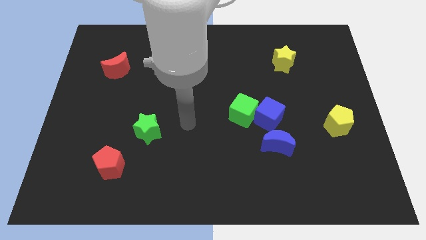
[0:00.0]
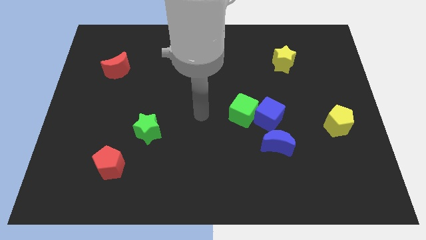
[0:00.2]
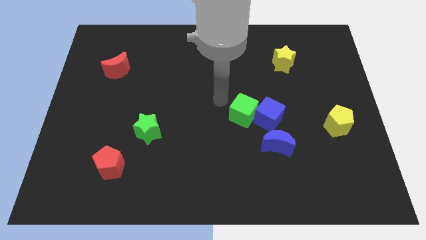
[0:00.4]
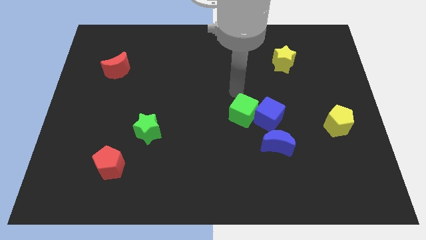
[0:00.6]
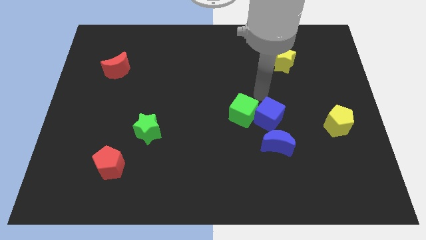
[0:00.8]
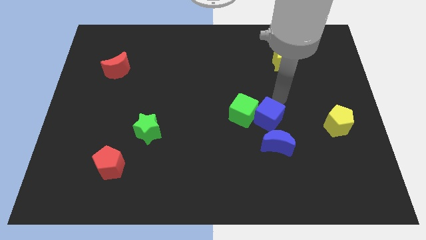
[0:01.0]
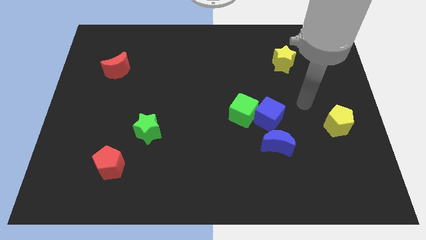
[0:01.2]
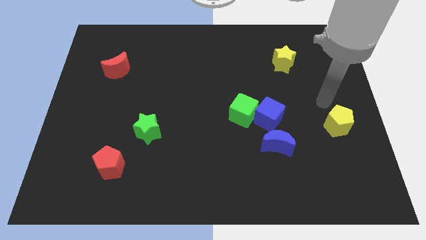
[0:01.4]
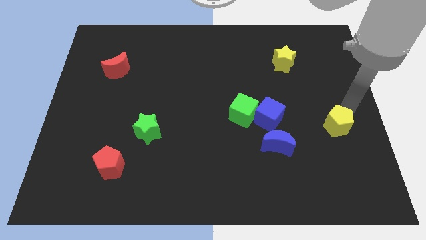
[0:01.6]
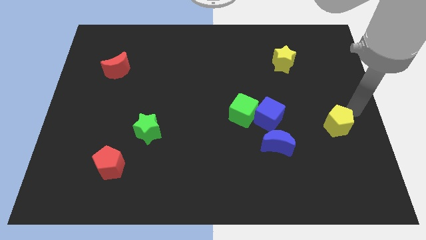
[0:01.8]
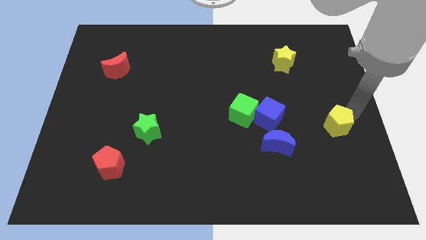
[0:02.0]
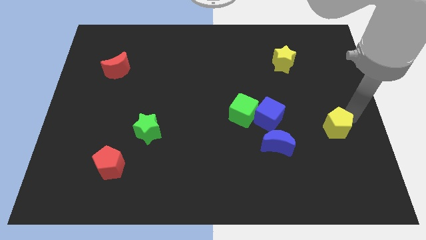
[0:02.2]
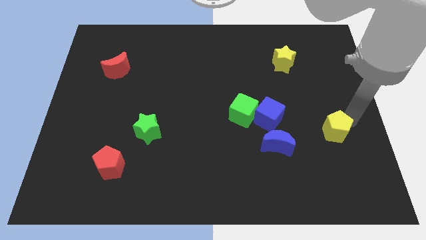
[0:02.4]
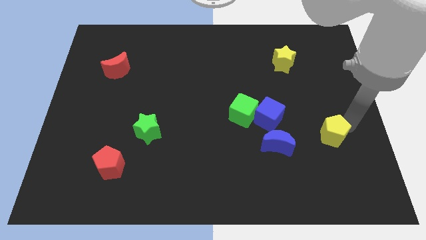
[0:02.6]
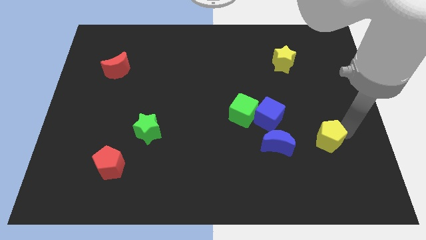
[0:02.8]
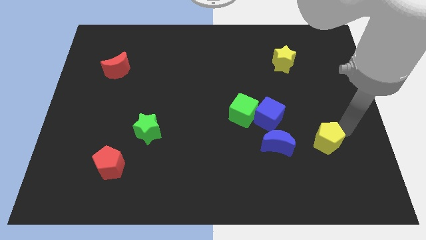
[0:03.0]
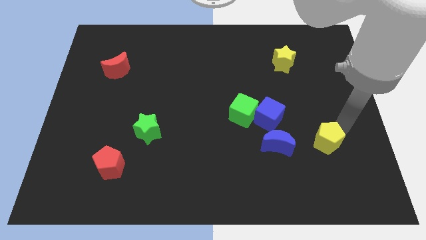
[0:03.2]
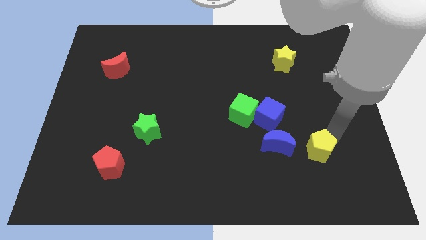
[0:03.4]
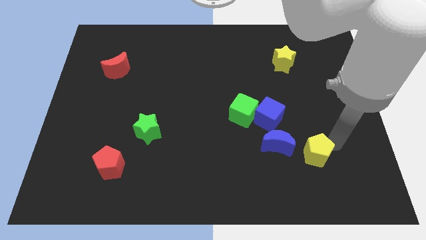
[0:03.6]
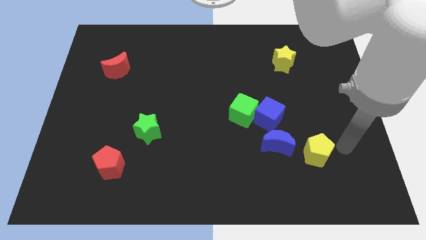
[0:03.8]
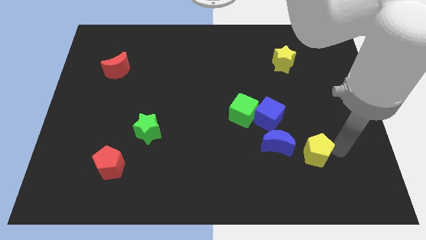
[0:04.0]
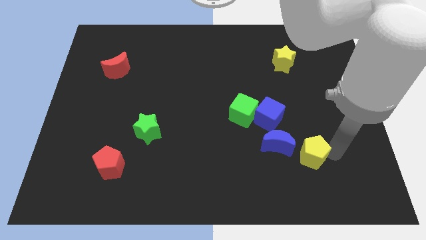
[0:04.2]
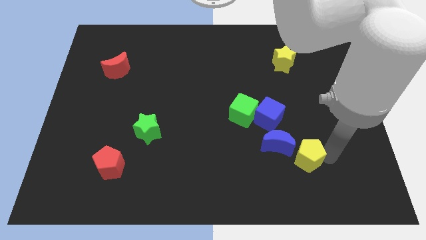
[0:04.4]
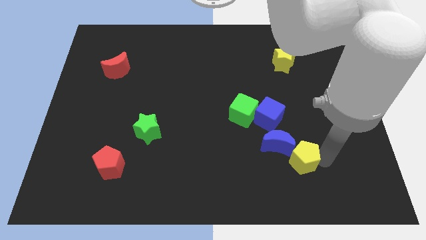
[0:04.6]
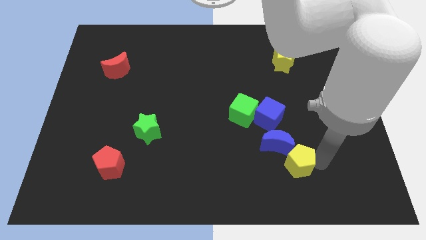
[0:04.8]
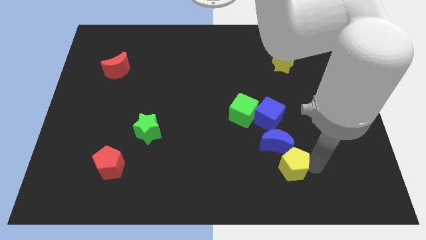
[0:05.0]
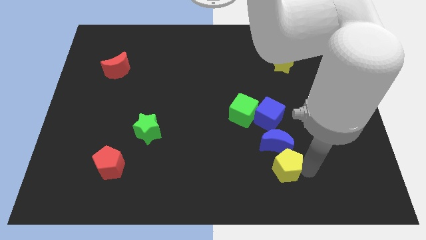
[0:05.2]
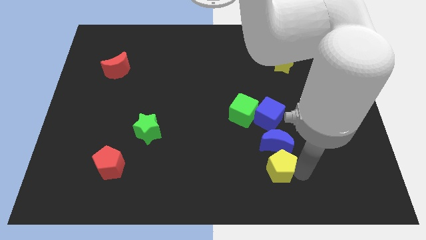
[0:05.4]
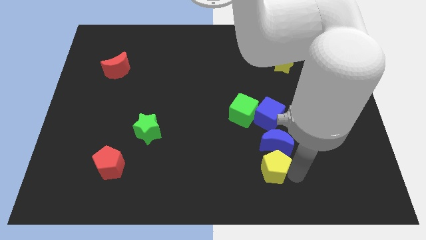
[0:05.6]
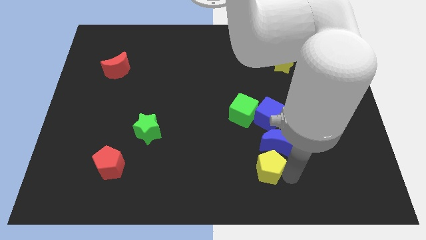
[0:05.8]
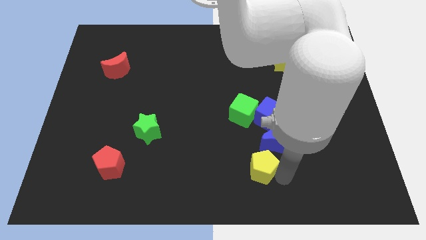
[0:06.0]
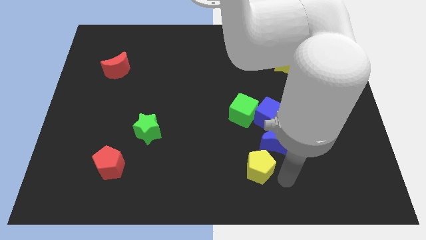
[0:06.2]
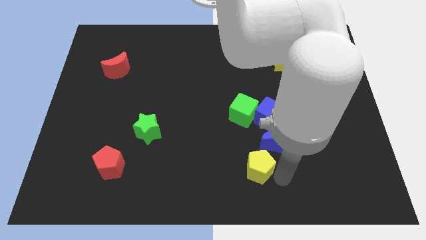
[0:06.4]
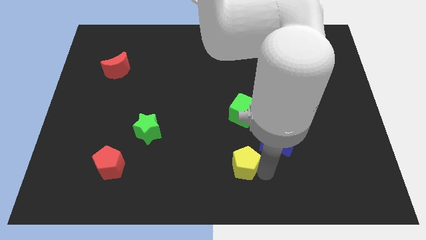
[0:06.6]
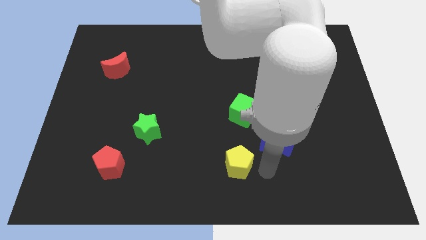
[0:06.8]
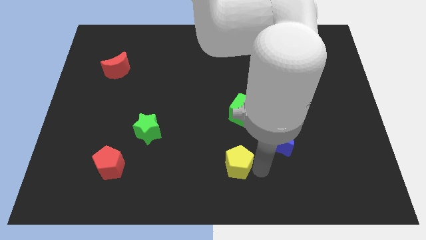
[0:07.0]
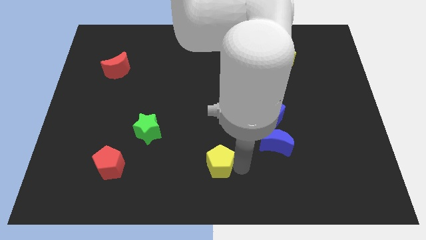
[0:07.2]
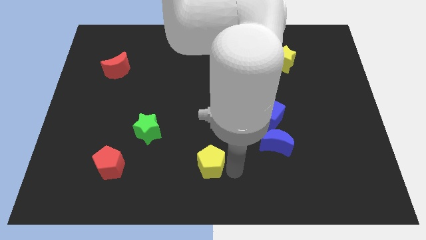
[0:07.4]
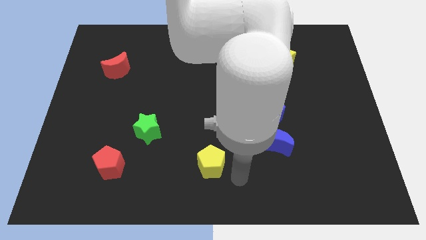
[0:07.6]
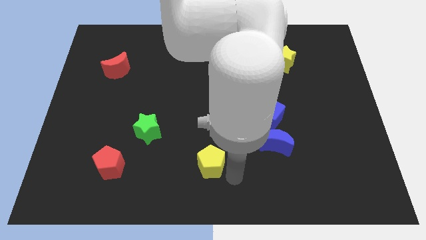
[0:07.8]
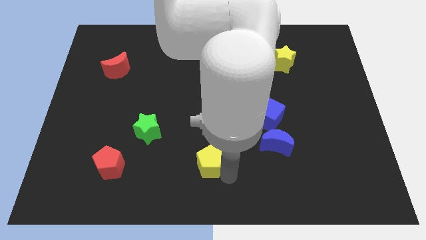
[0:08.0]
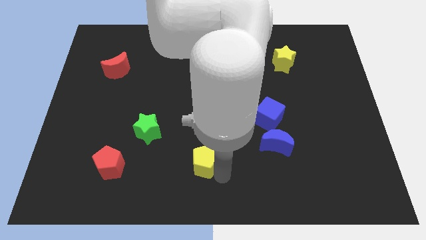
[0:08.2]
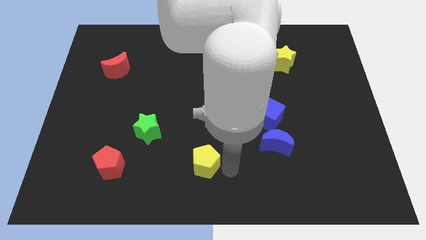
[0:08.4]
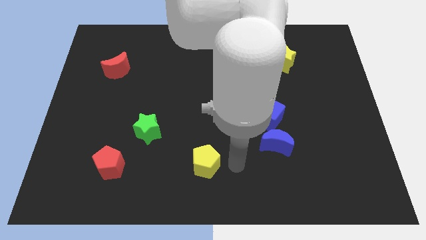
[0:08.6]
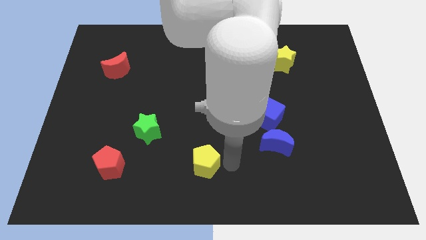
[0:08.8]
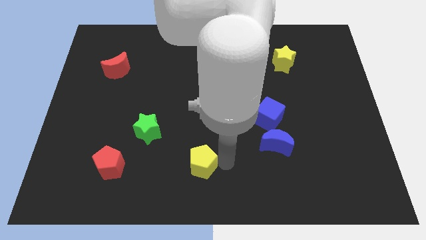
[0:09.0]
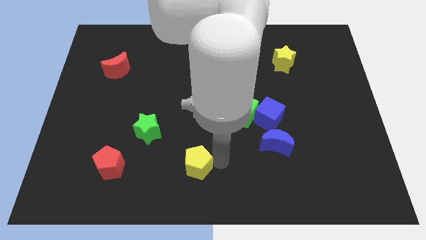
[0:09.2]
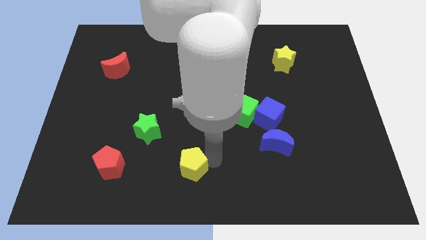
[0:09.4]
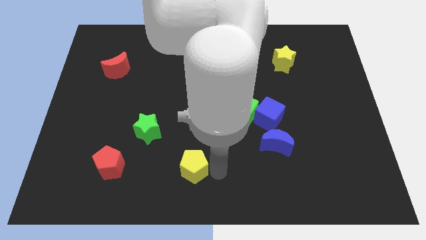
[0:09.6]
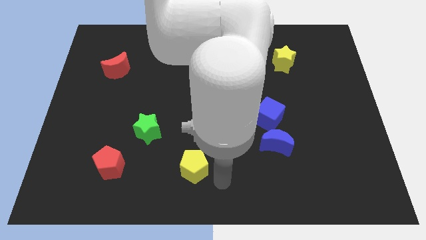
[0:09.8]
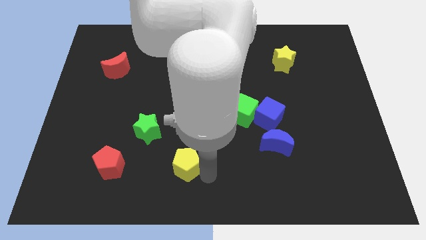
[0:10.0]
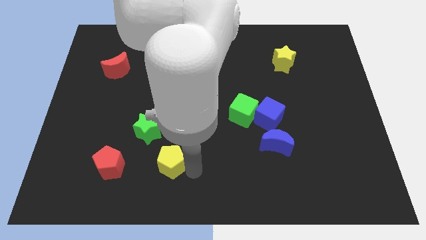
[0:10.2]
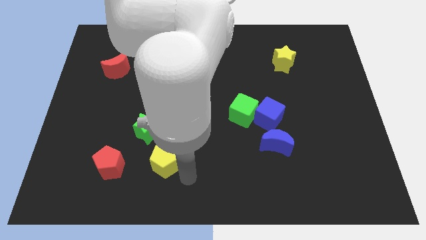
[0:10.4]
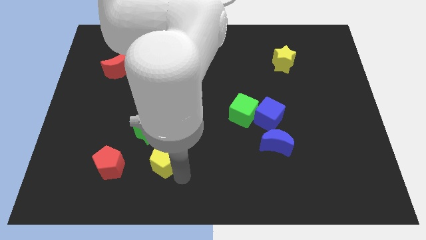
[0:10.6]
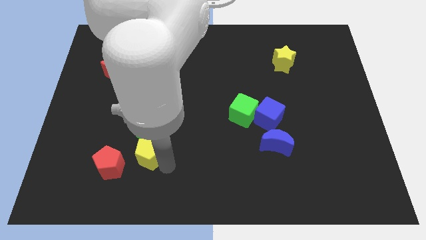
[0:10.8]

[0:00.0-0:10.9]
slide the yellow pentagon to the top right of the red pentagon

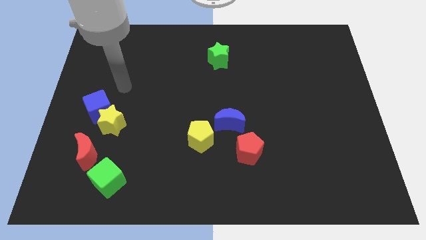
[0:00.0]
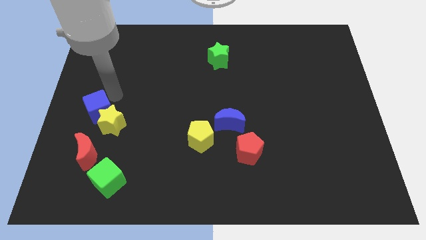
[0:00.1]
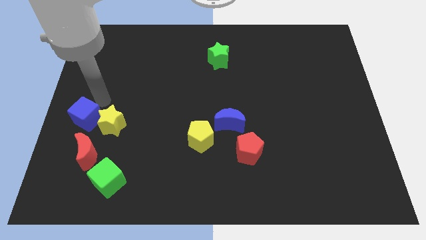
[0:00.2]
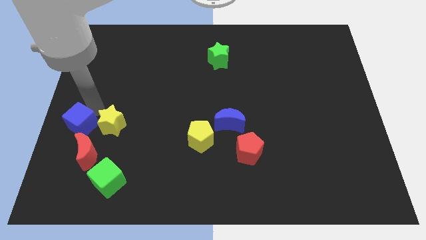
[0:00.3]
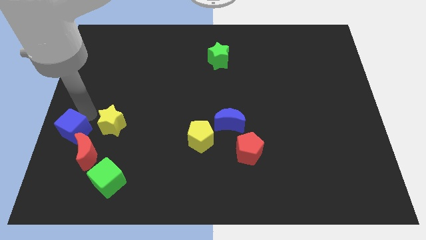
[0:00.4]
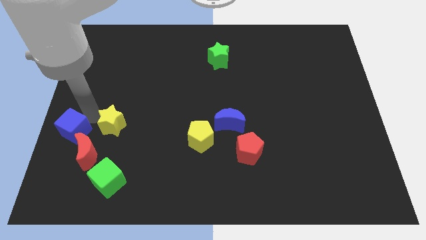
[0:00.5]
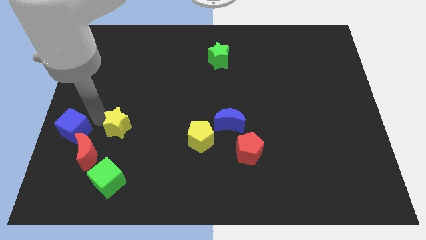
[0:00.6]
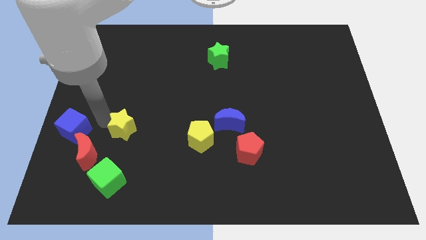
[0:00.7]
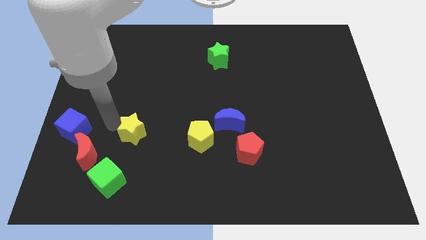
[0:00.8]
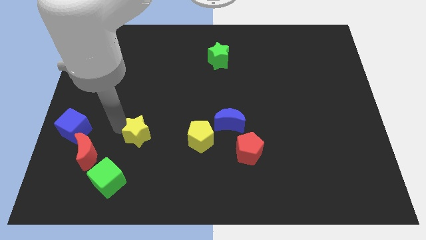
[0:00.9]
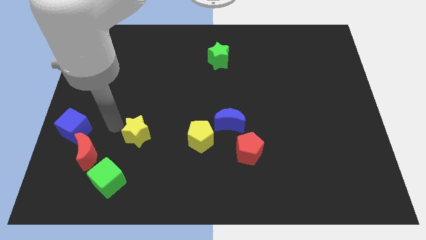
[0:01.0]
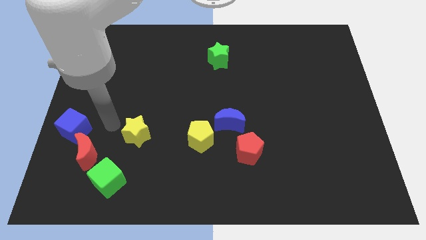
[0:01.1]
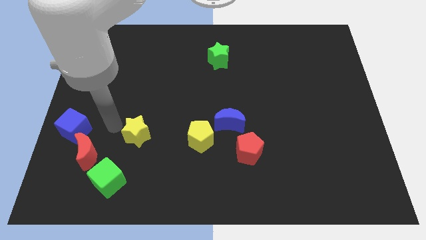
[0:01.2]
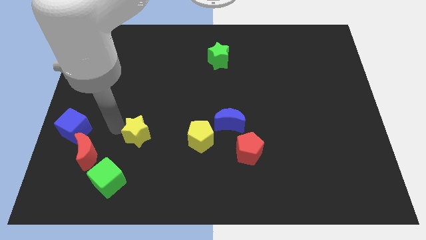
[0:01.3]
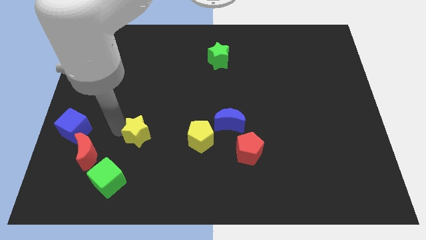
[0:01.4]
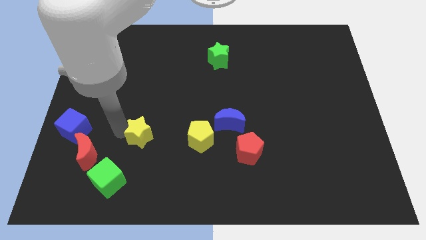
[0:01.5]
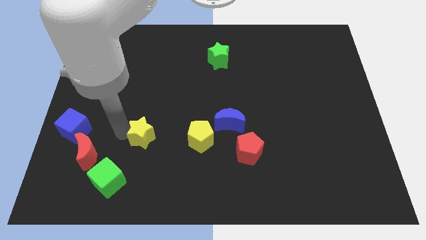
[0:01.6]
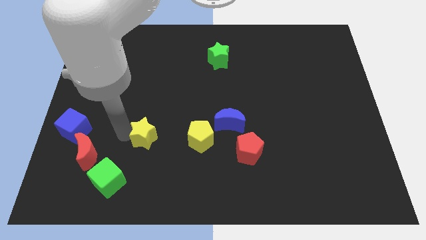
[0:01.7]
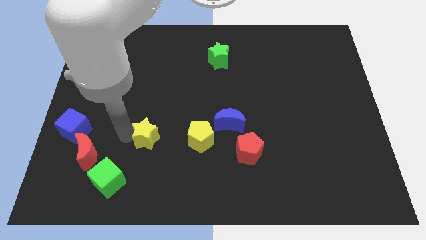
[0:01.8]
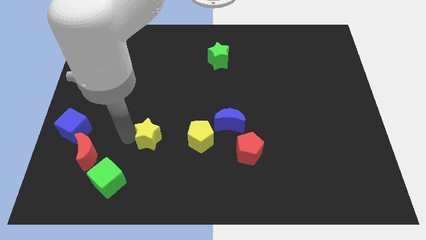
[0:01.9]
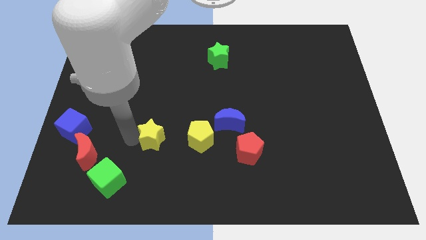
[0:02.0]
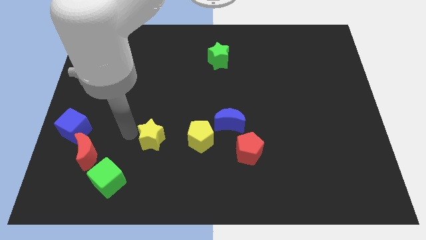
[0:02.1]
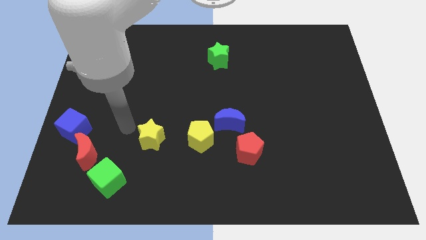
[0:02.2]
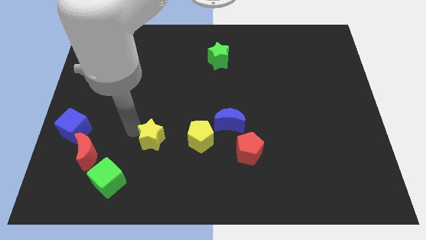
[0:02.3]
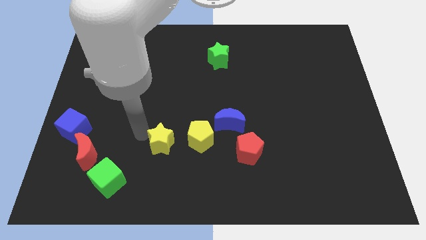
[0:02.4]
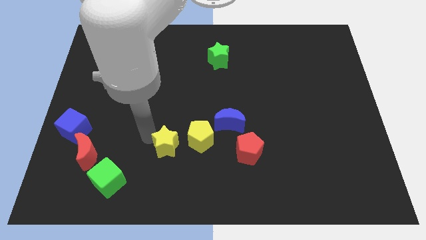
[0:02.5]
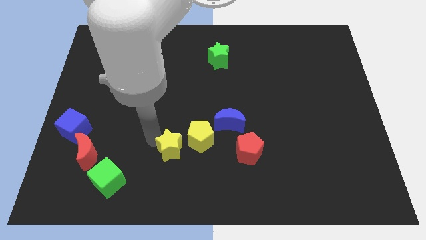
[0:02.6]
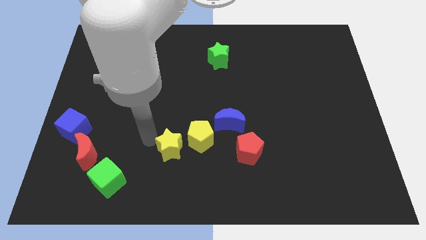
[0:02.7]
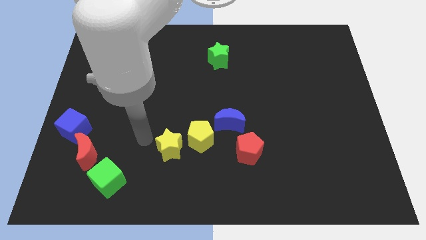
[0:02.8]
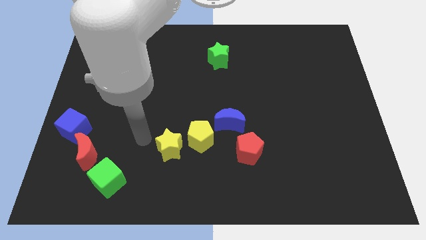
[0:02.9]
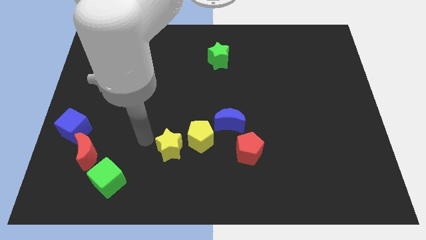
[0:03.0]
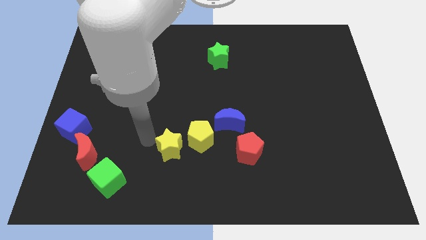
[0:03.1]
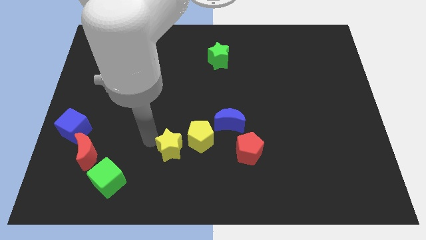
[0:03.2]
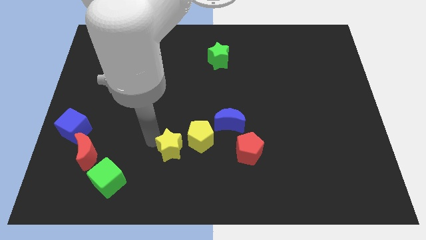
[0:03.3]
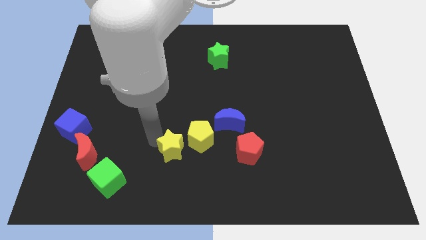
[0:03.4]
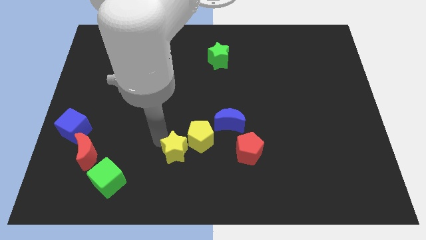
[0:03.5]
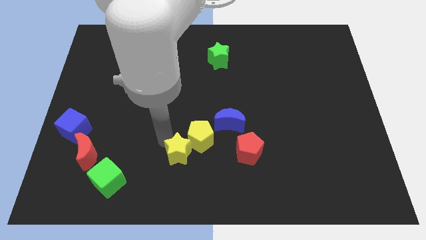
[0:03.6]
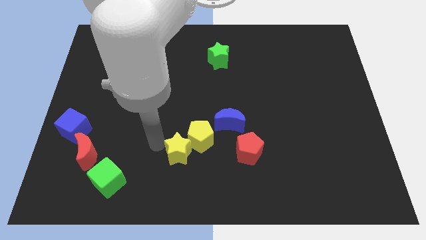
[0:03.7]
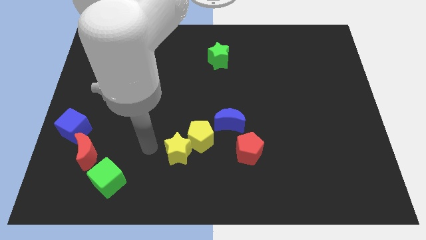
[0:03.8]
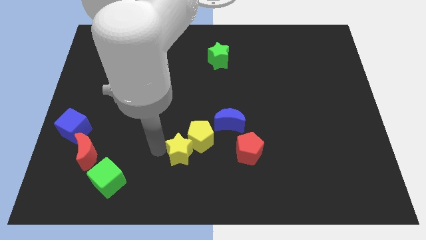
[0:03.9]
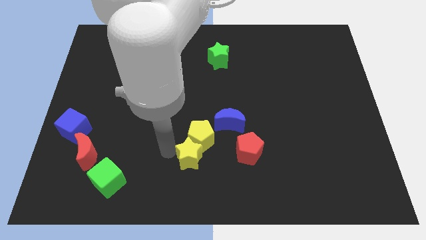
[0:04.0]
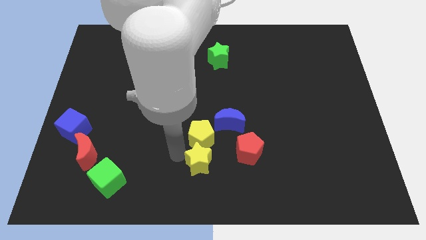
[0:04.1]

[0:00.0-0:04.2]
push the yellow star to the bottom right of the yellow pentagon
